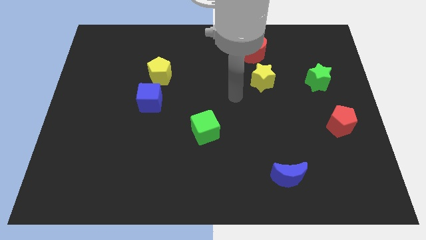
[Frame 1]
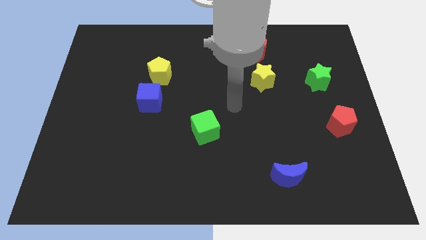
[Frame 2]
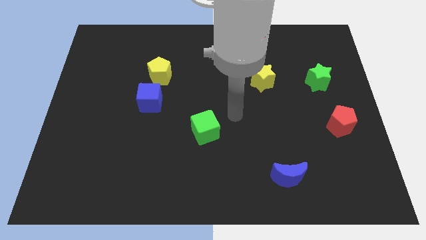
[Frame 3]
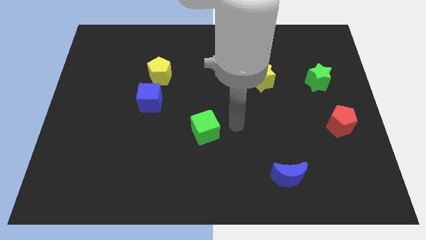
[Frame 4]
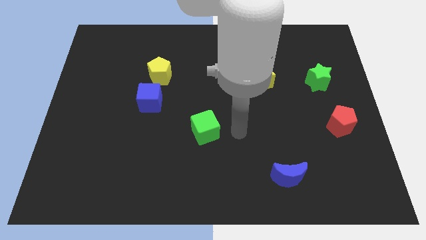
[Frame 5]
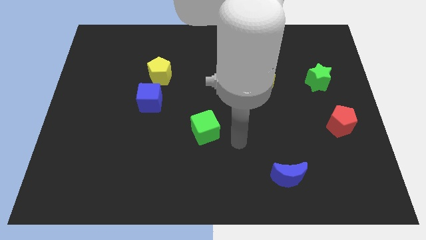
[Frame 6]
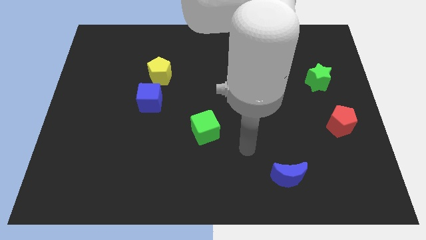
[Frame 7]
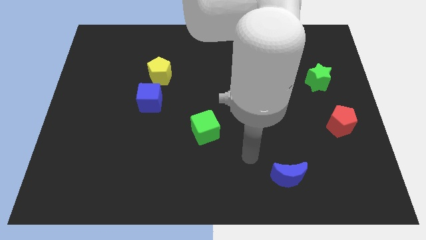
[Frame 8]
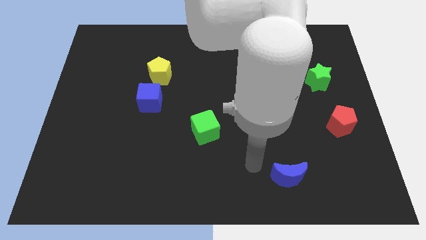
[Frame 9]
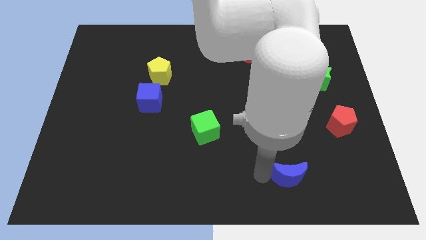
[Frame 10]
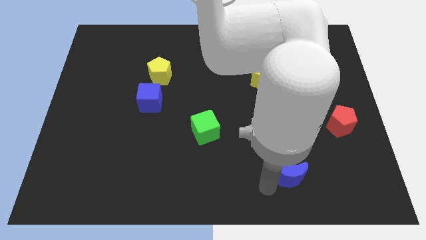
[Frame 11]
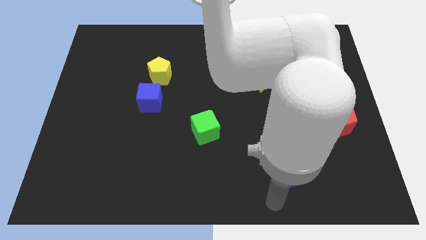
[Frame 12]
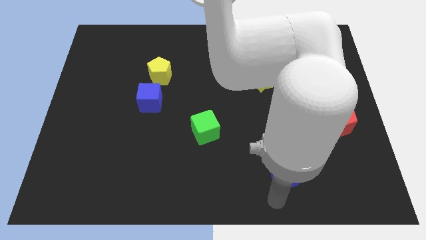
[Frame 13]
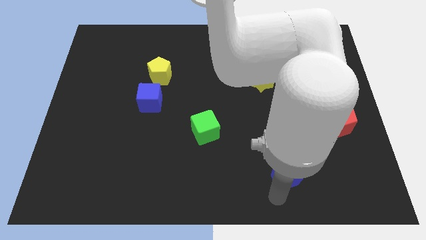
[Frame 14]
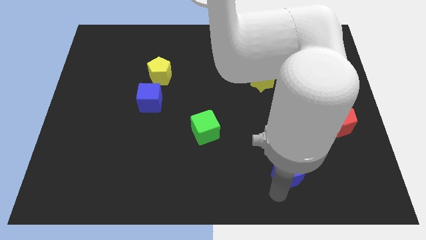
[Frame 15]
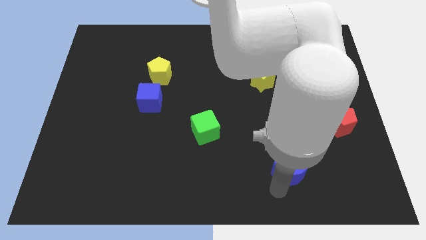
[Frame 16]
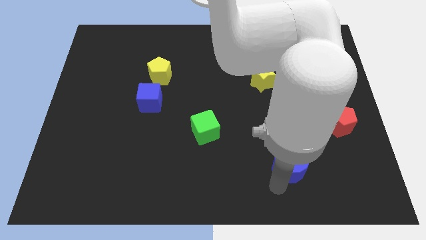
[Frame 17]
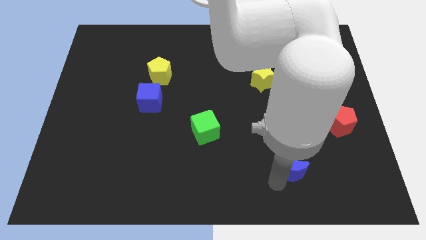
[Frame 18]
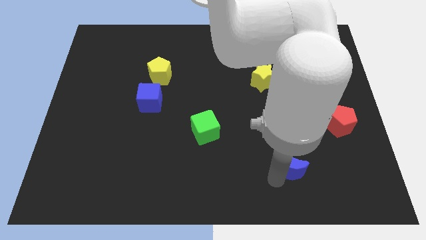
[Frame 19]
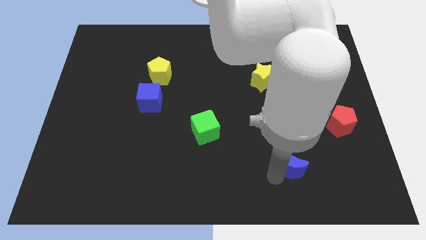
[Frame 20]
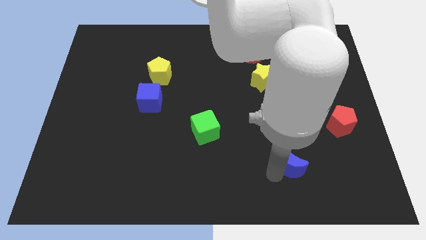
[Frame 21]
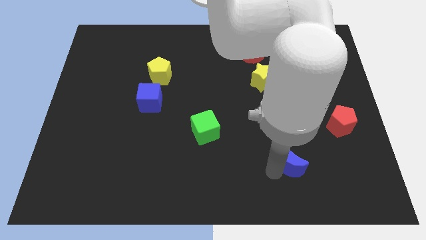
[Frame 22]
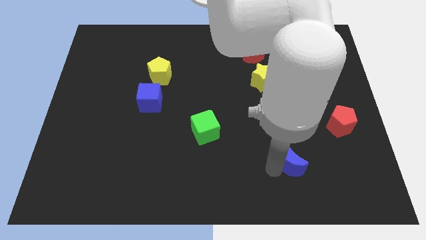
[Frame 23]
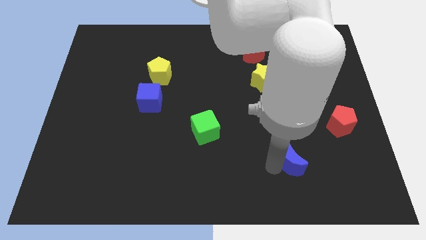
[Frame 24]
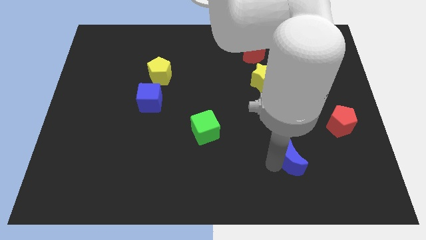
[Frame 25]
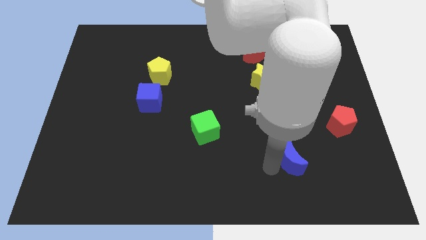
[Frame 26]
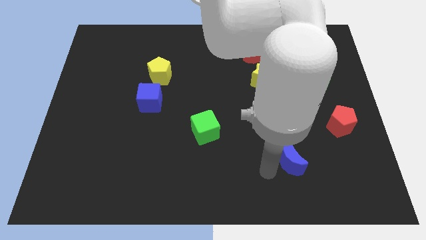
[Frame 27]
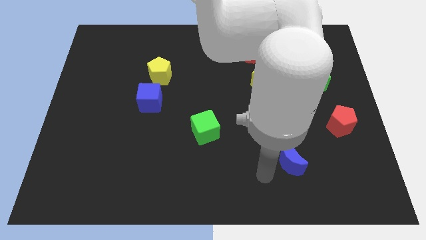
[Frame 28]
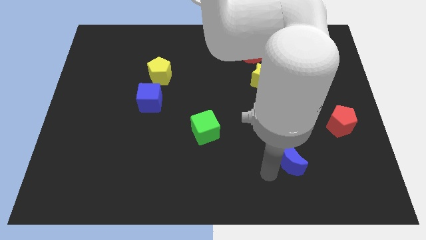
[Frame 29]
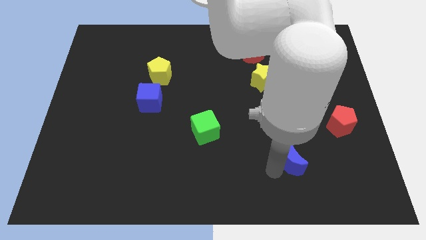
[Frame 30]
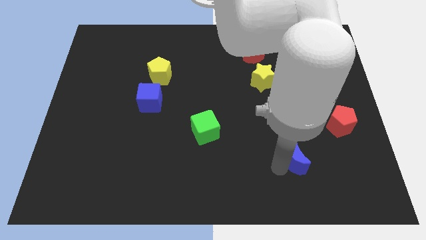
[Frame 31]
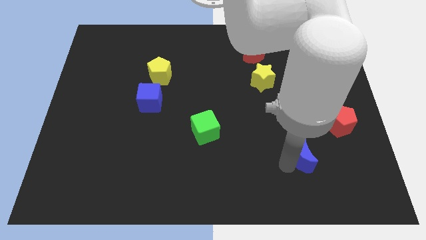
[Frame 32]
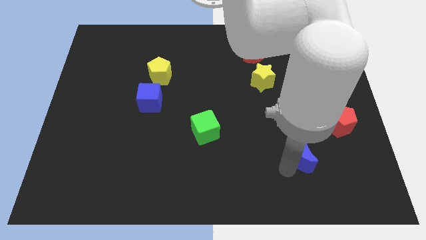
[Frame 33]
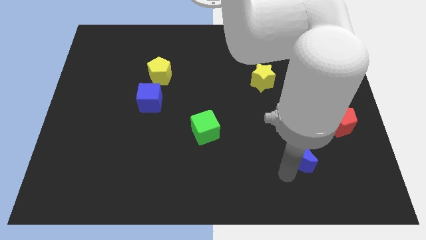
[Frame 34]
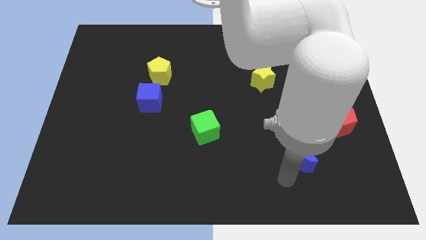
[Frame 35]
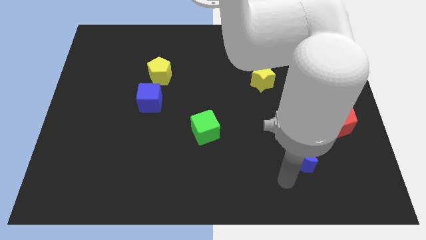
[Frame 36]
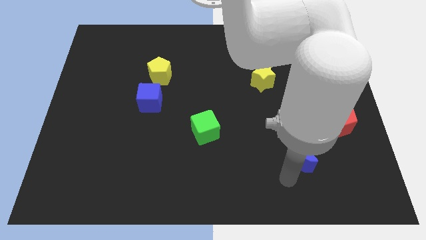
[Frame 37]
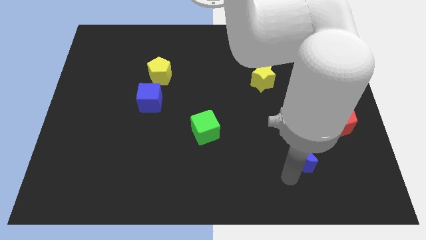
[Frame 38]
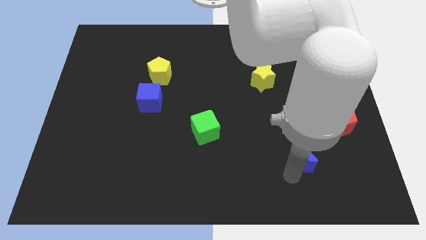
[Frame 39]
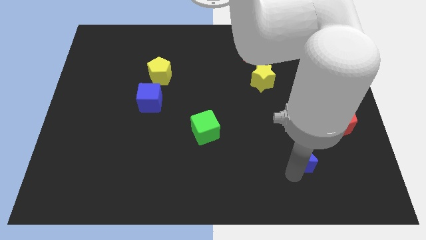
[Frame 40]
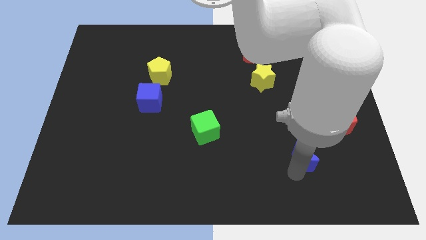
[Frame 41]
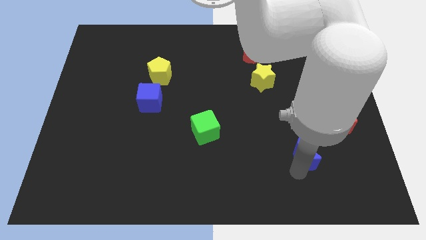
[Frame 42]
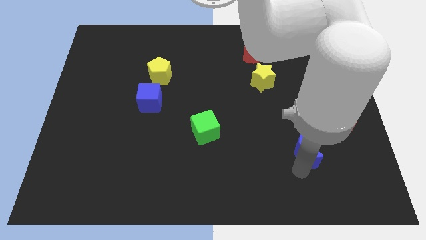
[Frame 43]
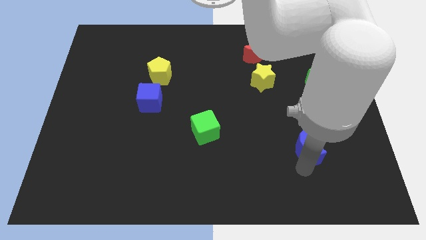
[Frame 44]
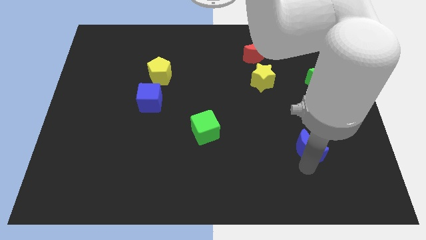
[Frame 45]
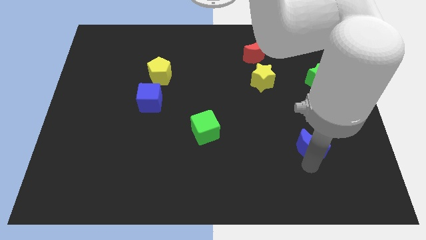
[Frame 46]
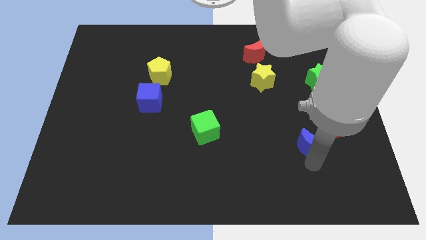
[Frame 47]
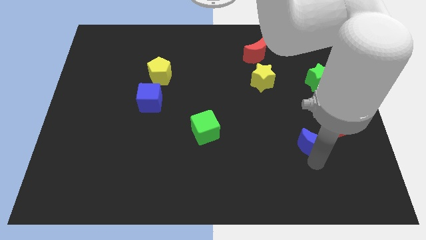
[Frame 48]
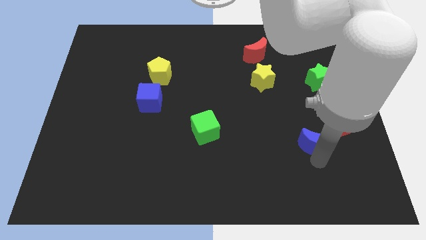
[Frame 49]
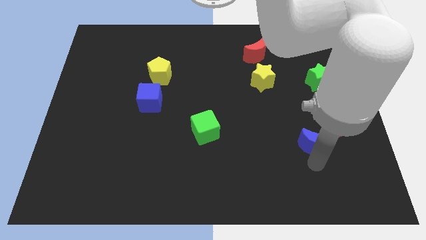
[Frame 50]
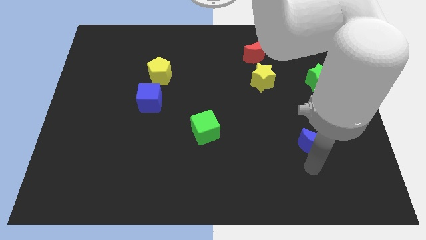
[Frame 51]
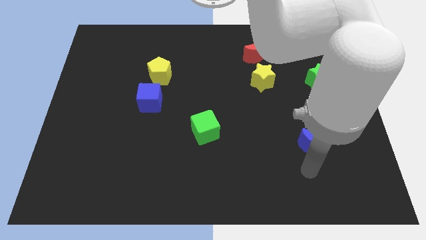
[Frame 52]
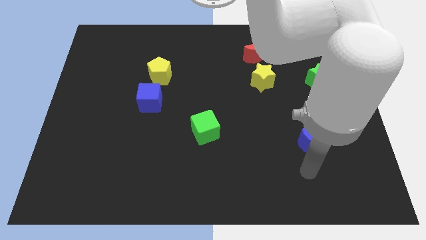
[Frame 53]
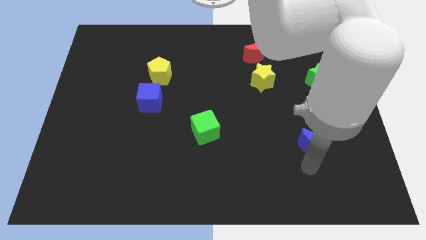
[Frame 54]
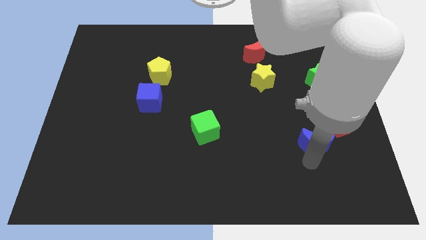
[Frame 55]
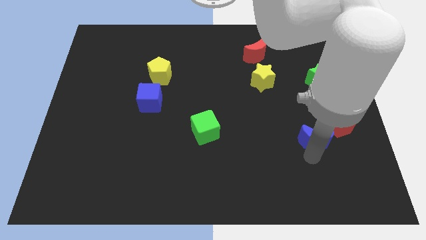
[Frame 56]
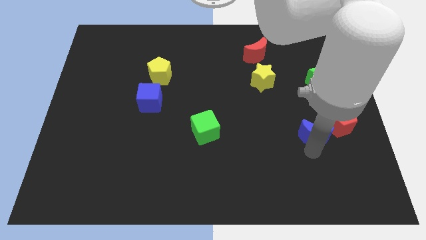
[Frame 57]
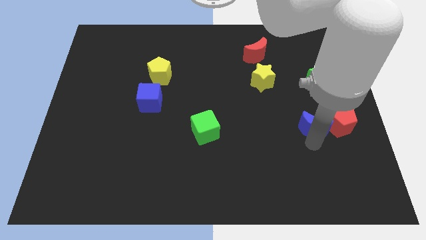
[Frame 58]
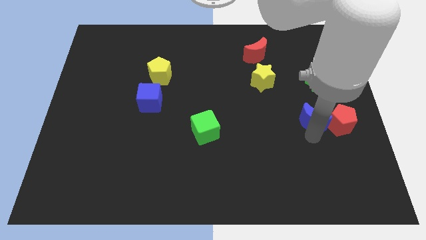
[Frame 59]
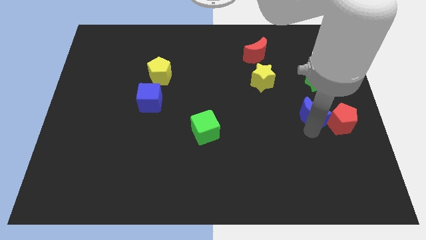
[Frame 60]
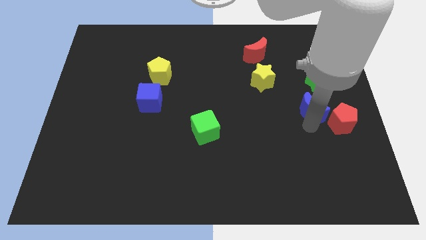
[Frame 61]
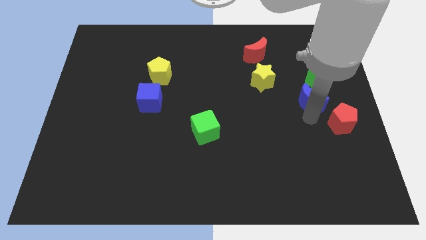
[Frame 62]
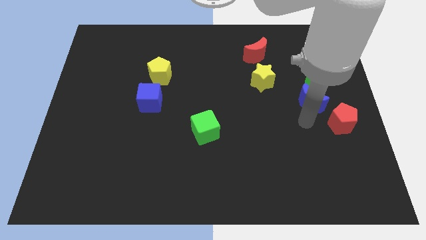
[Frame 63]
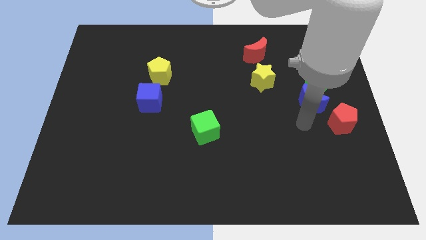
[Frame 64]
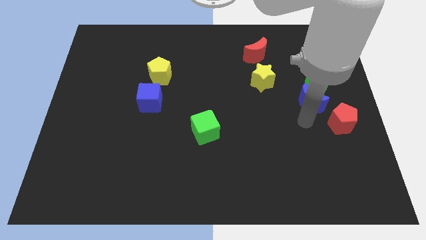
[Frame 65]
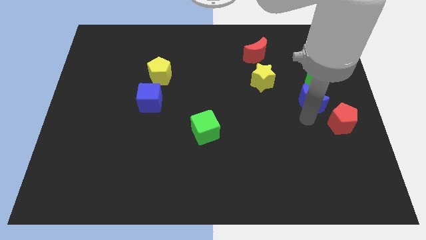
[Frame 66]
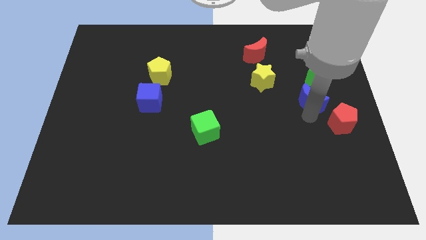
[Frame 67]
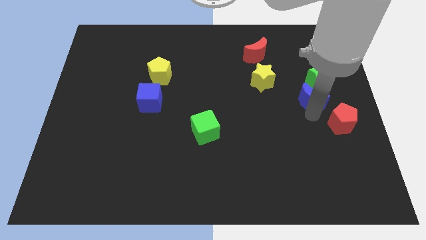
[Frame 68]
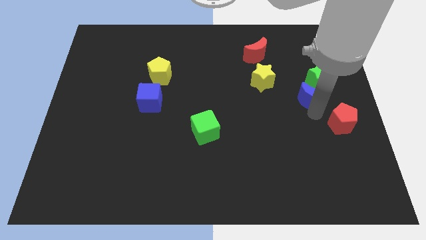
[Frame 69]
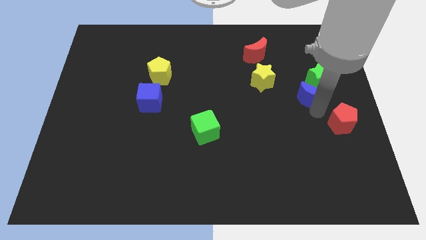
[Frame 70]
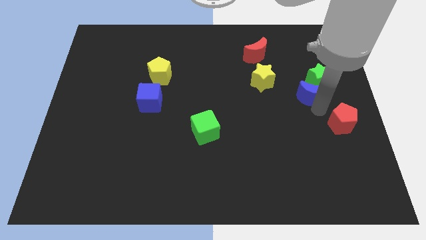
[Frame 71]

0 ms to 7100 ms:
push the blue moon close to the green star
